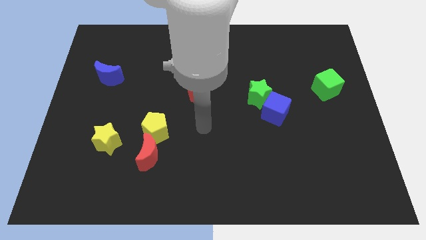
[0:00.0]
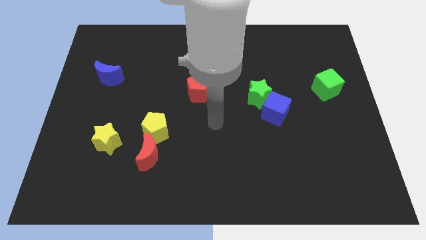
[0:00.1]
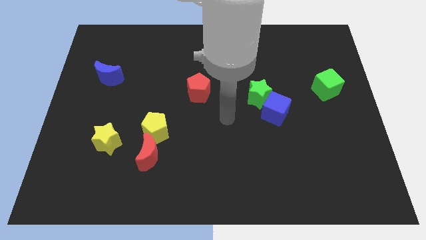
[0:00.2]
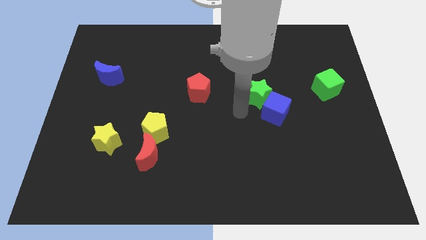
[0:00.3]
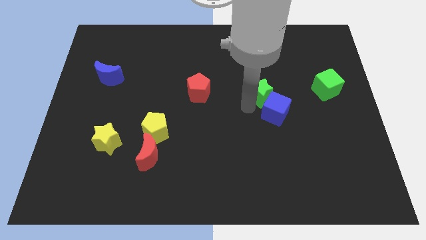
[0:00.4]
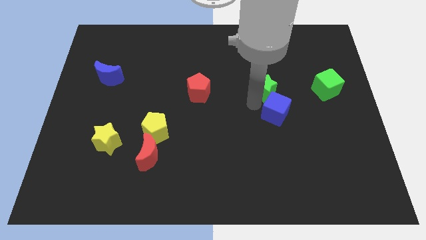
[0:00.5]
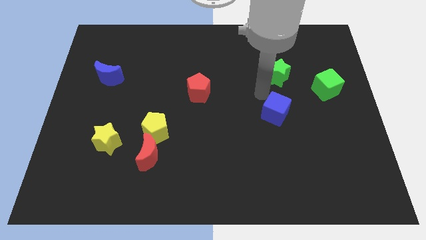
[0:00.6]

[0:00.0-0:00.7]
separate the blue cube from the green star

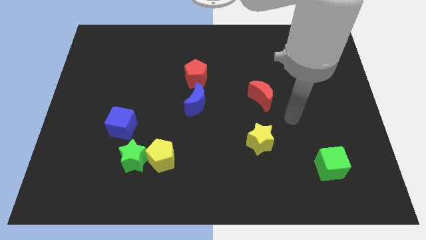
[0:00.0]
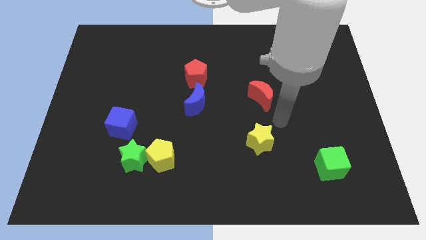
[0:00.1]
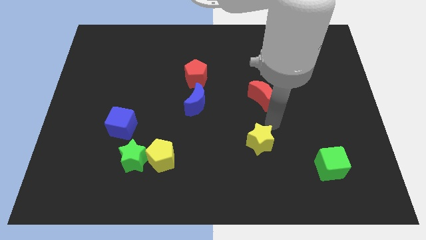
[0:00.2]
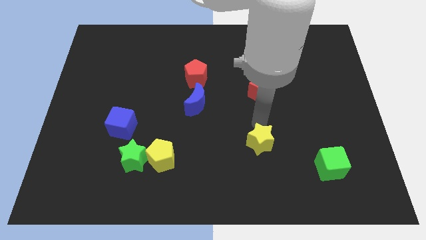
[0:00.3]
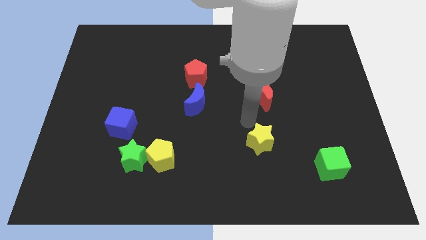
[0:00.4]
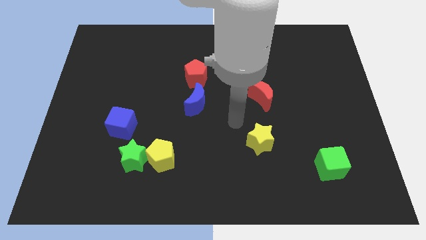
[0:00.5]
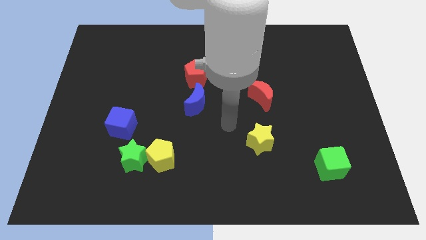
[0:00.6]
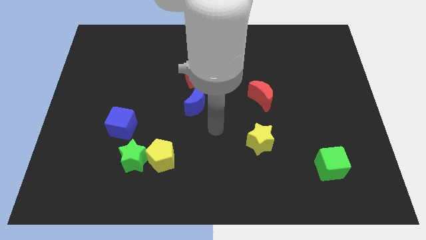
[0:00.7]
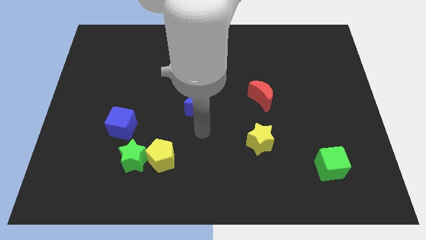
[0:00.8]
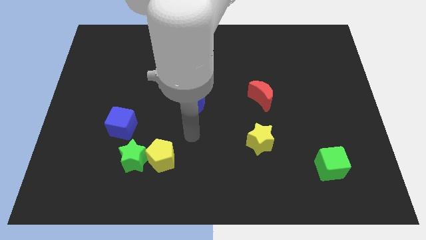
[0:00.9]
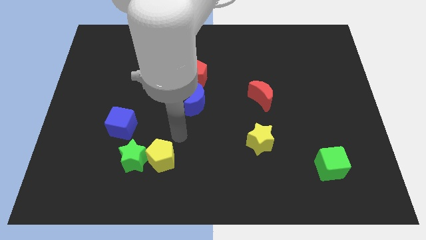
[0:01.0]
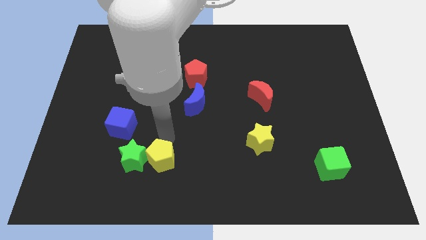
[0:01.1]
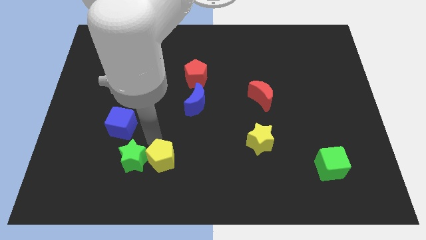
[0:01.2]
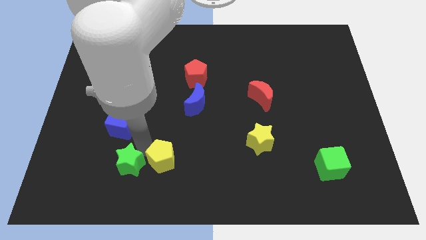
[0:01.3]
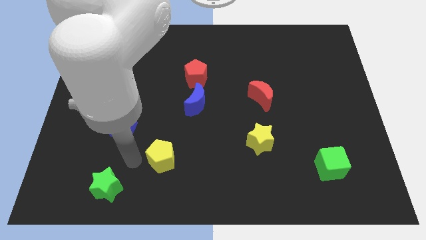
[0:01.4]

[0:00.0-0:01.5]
separate the yellow pentagon from the green star

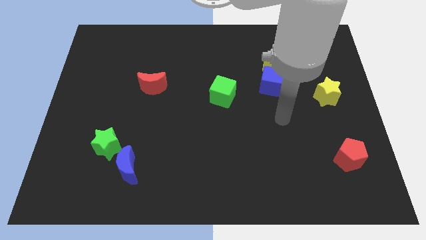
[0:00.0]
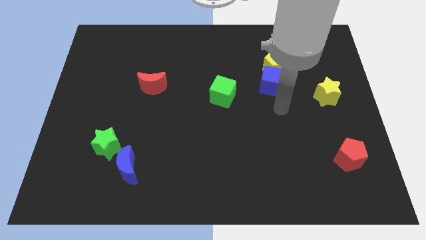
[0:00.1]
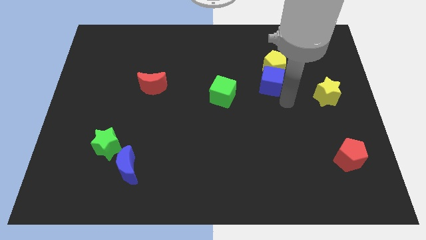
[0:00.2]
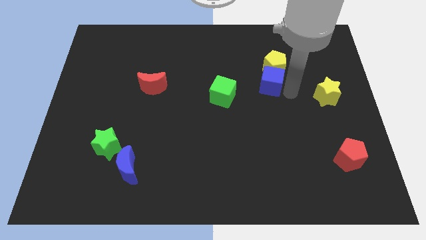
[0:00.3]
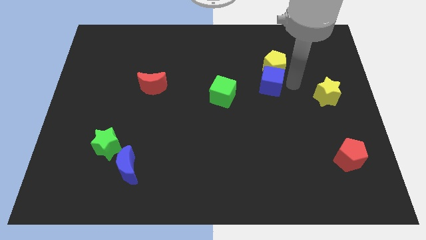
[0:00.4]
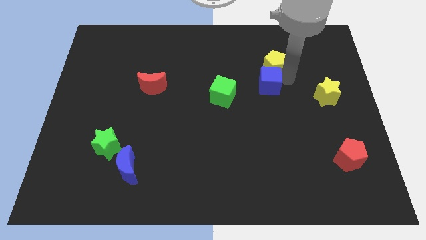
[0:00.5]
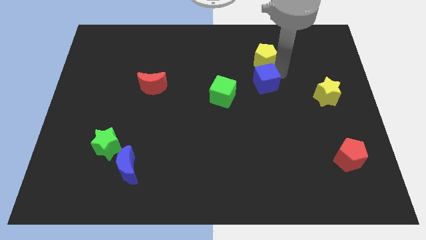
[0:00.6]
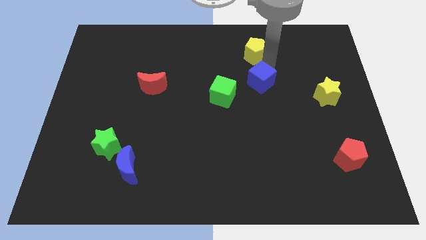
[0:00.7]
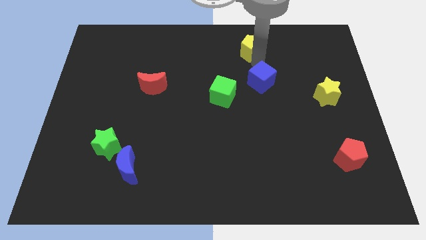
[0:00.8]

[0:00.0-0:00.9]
separate the blue cube from the yellow pentagon

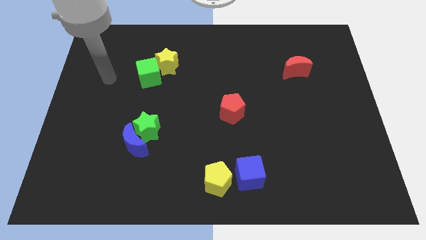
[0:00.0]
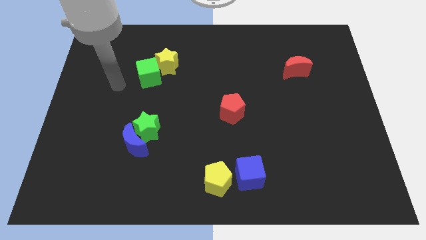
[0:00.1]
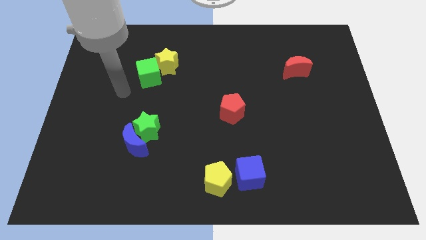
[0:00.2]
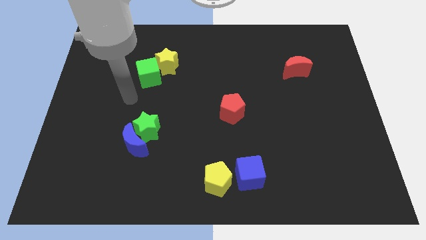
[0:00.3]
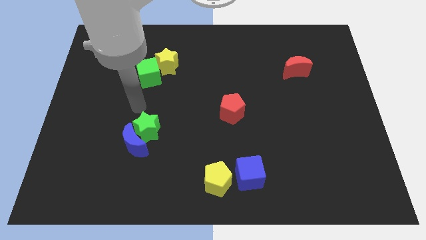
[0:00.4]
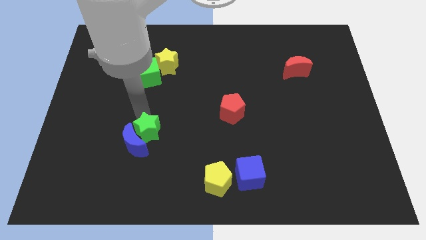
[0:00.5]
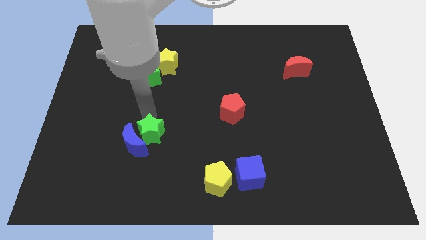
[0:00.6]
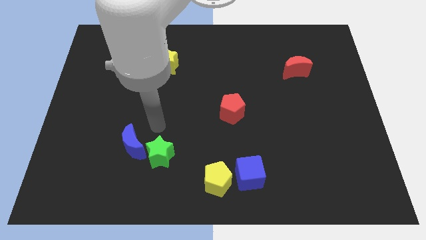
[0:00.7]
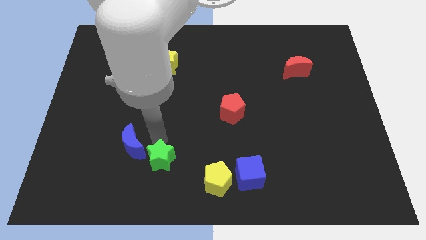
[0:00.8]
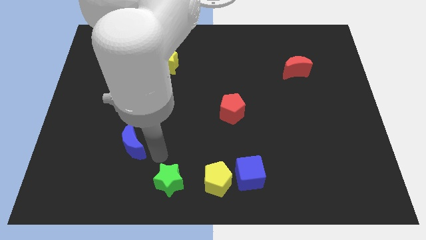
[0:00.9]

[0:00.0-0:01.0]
separate the blue moon from the green star

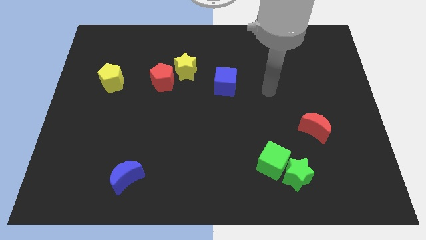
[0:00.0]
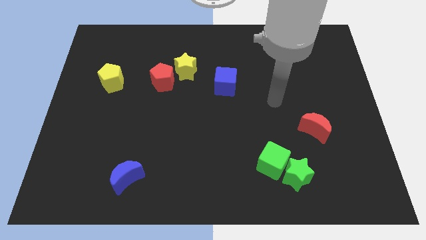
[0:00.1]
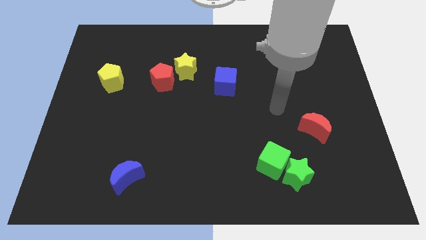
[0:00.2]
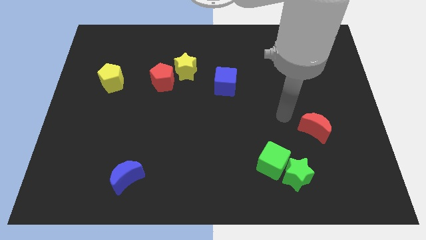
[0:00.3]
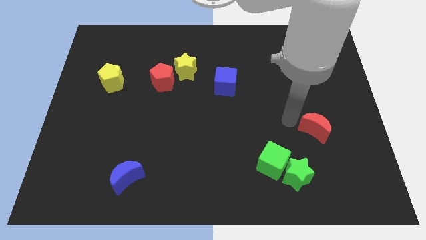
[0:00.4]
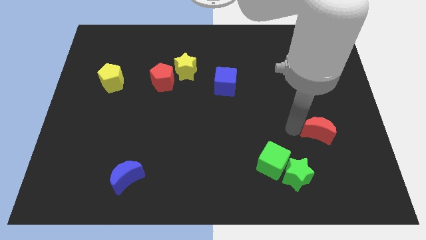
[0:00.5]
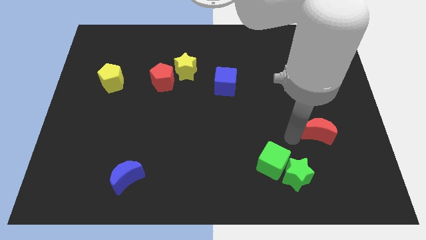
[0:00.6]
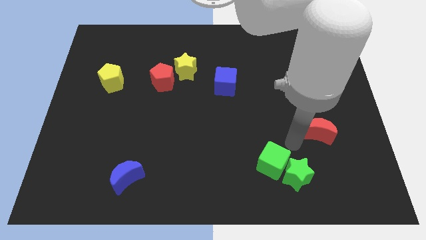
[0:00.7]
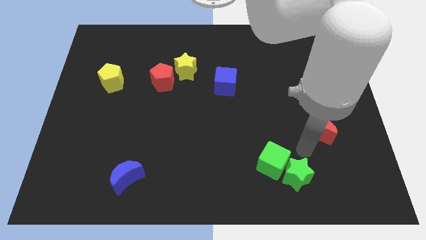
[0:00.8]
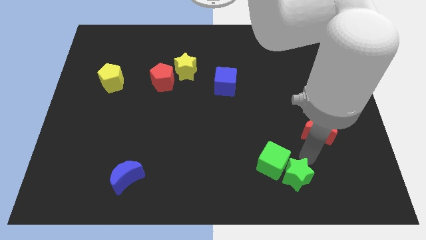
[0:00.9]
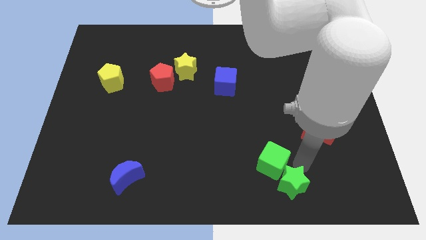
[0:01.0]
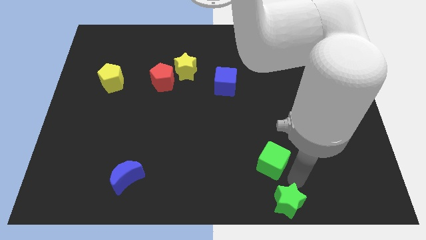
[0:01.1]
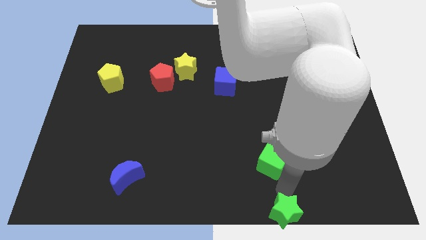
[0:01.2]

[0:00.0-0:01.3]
separate the green cube from the green star

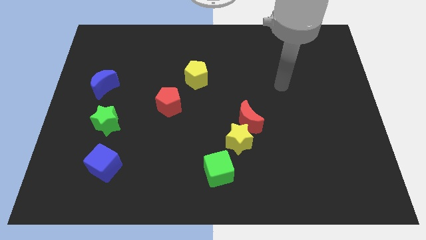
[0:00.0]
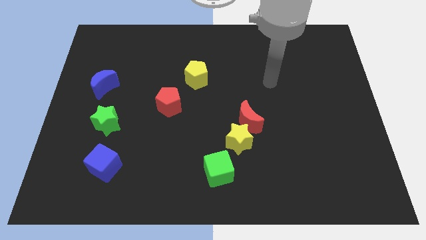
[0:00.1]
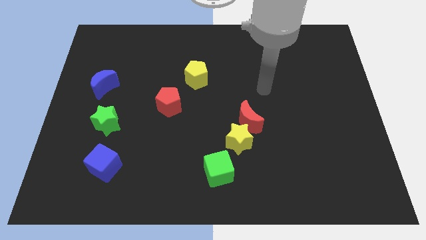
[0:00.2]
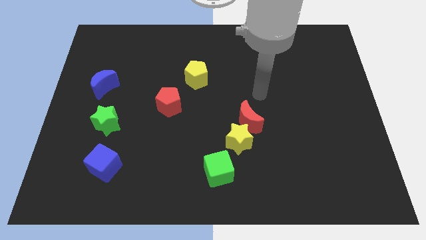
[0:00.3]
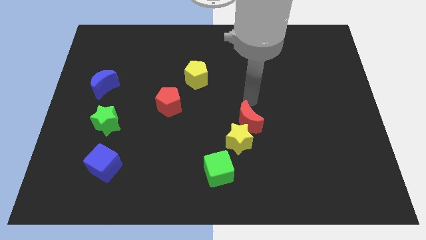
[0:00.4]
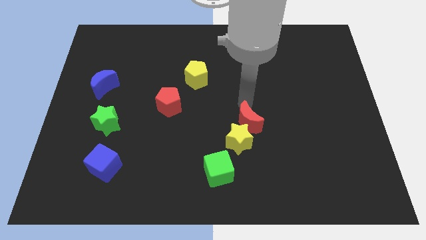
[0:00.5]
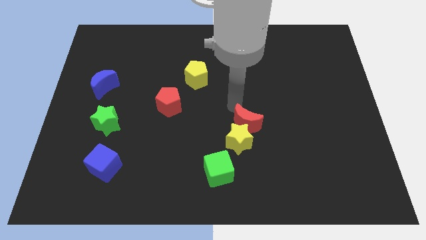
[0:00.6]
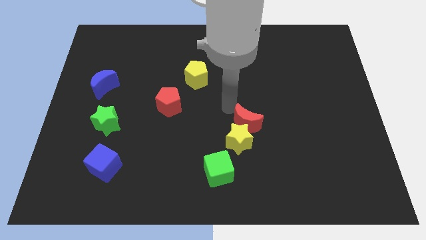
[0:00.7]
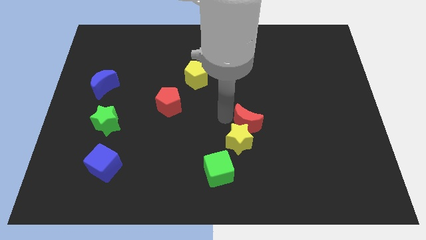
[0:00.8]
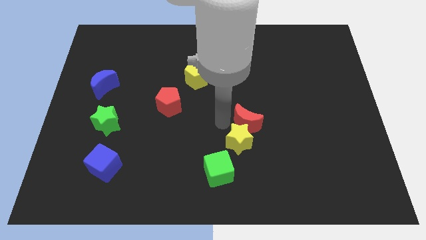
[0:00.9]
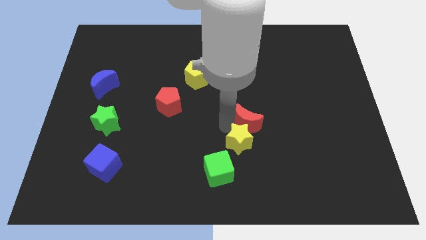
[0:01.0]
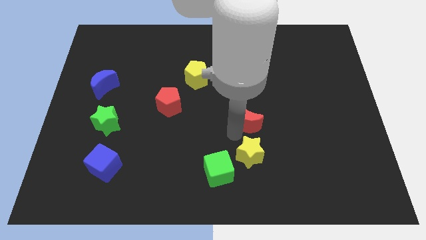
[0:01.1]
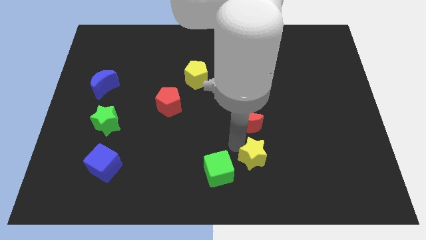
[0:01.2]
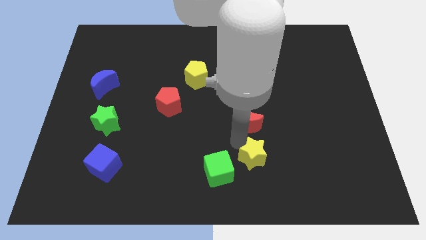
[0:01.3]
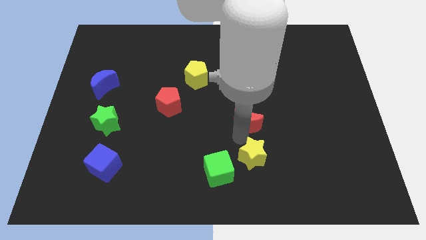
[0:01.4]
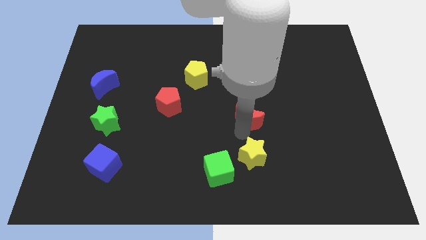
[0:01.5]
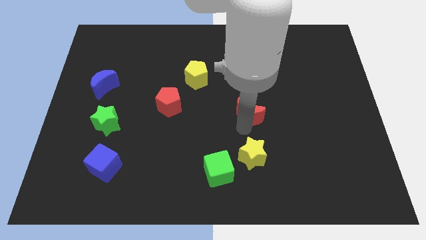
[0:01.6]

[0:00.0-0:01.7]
pull the red moon apart from the yellow star

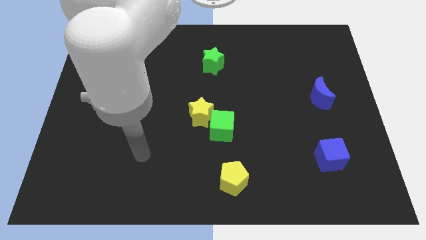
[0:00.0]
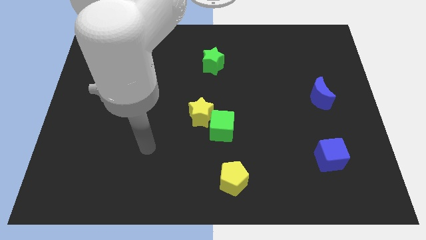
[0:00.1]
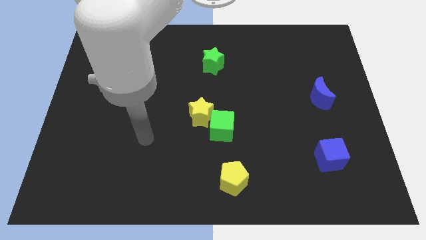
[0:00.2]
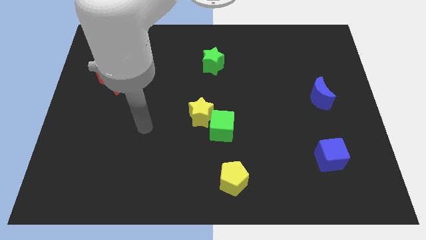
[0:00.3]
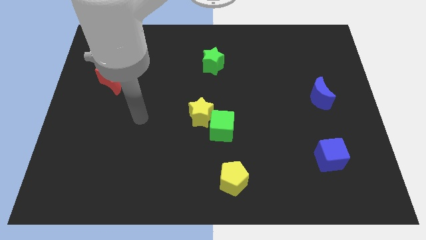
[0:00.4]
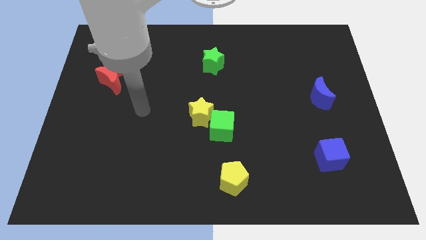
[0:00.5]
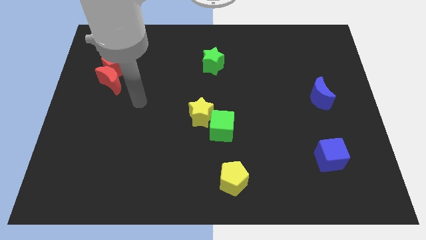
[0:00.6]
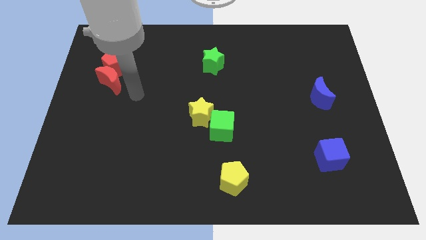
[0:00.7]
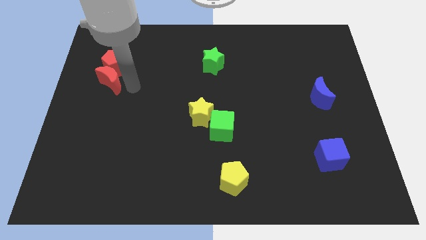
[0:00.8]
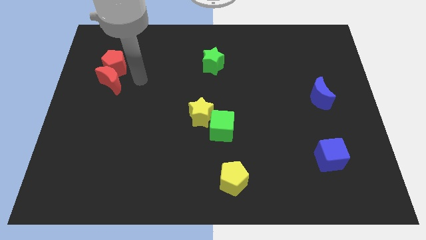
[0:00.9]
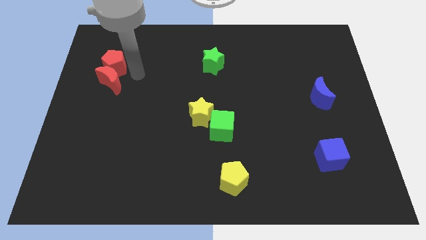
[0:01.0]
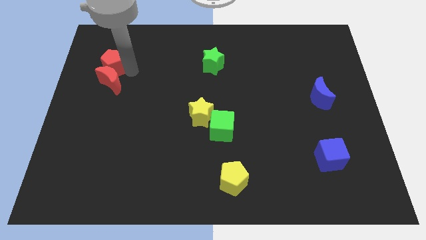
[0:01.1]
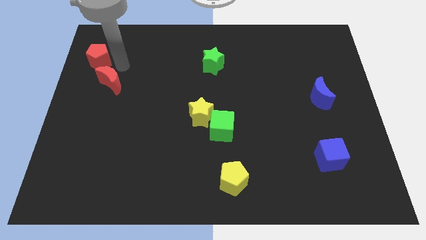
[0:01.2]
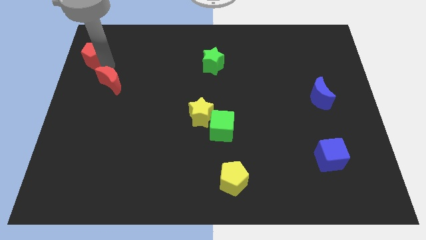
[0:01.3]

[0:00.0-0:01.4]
move the red moon away from the red pentagon

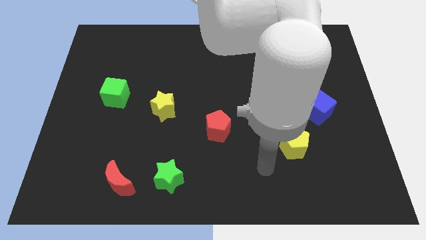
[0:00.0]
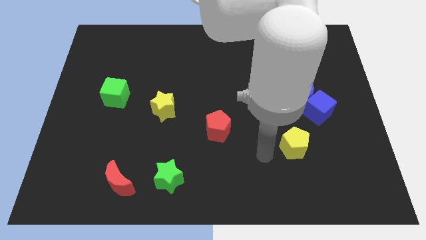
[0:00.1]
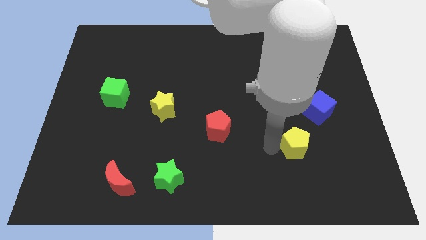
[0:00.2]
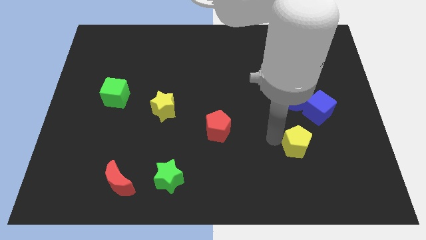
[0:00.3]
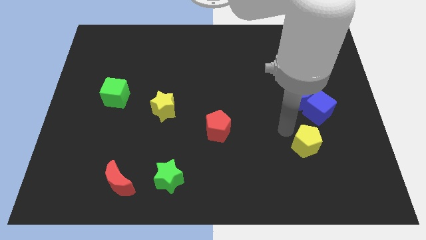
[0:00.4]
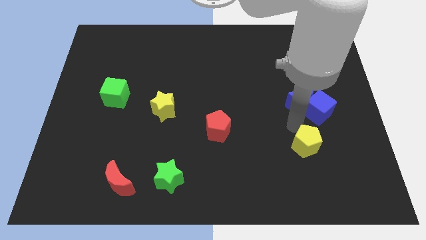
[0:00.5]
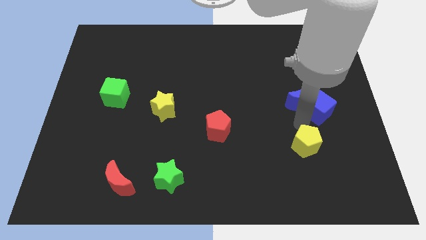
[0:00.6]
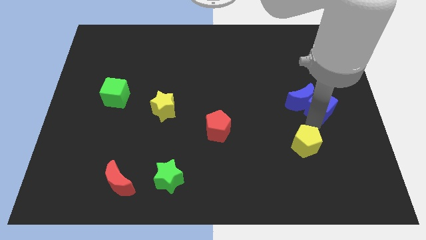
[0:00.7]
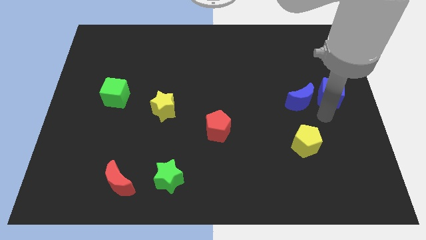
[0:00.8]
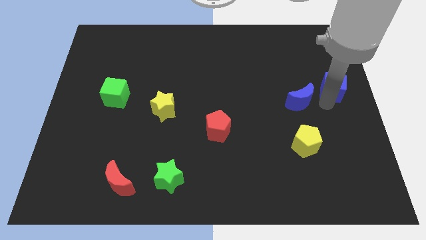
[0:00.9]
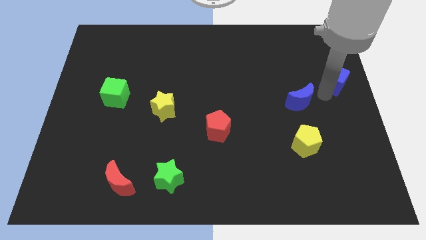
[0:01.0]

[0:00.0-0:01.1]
move the blue moon away from the blue cube
